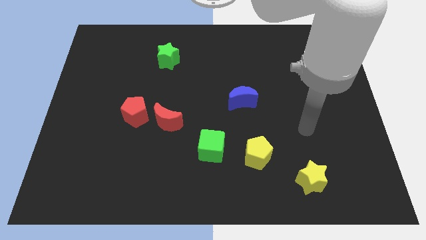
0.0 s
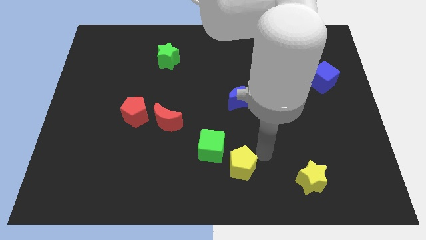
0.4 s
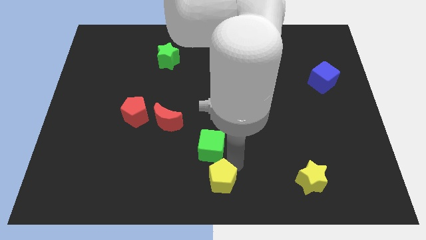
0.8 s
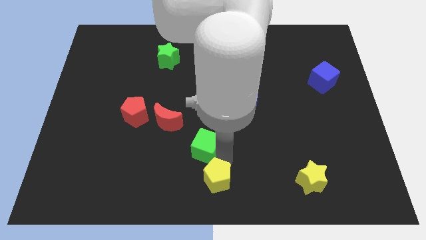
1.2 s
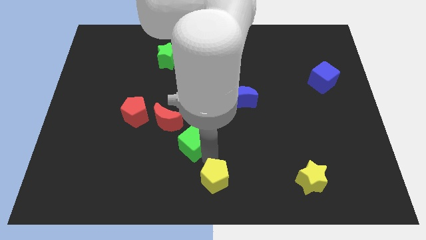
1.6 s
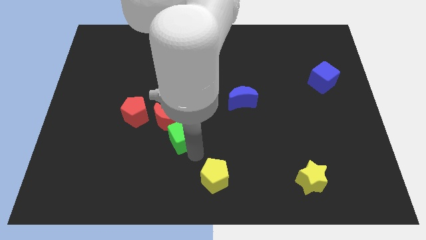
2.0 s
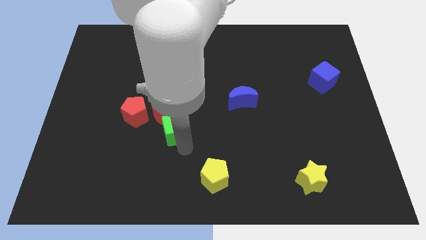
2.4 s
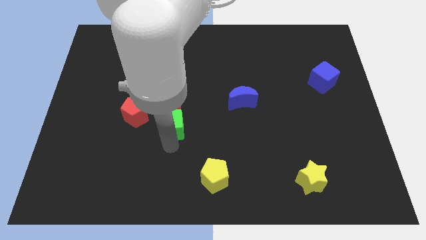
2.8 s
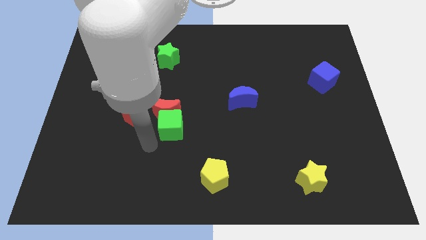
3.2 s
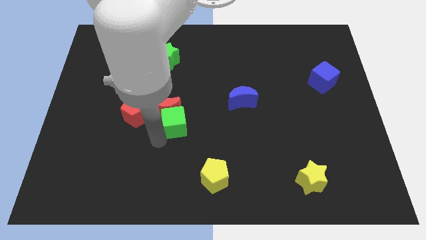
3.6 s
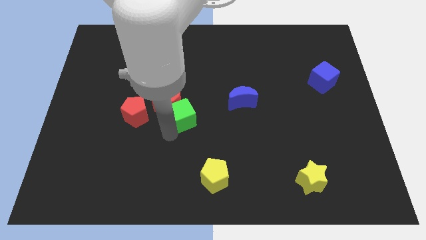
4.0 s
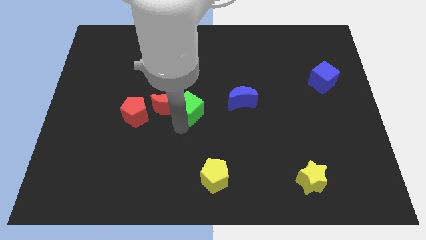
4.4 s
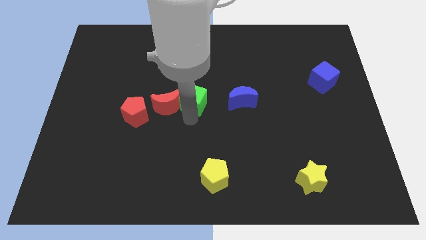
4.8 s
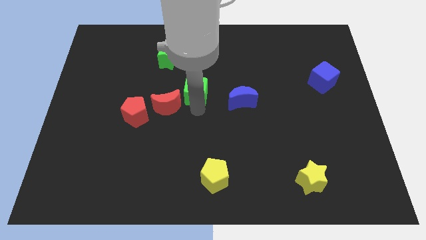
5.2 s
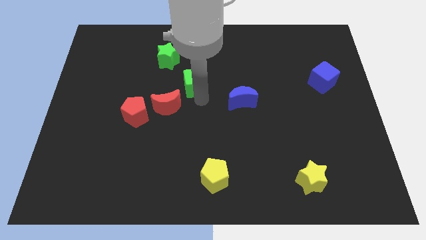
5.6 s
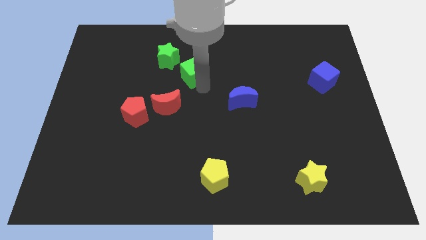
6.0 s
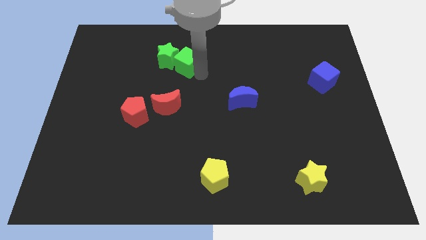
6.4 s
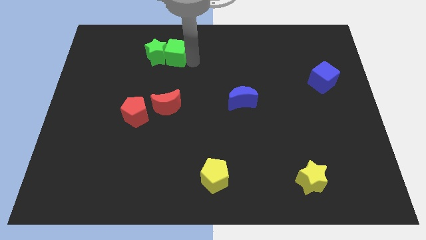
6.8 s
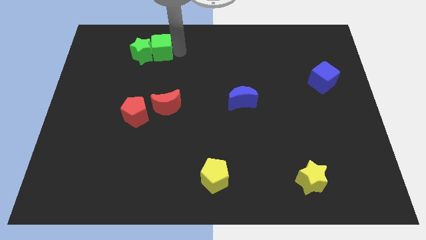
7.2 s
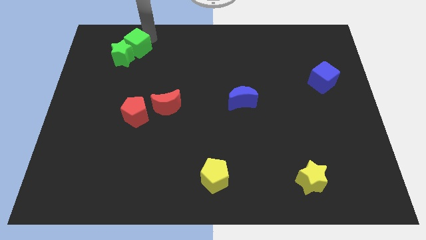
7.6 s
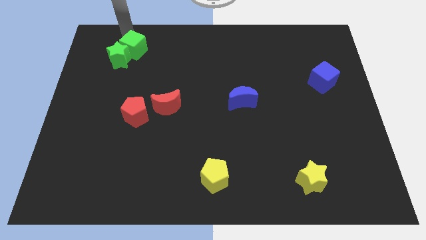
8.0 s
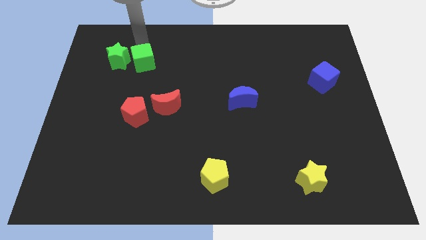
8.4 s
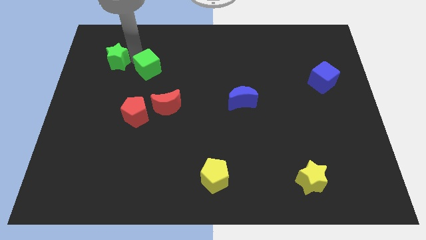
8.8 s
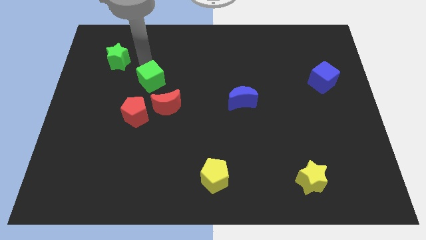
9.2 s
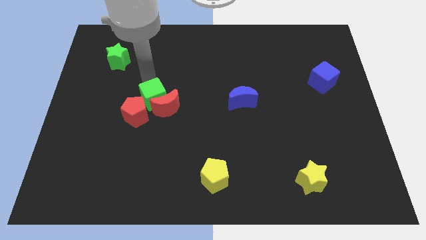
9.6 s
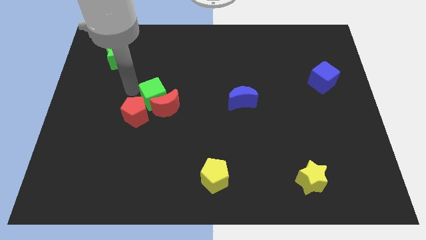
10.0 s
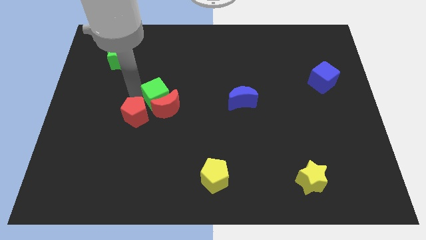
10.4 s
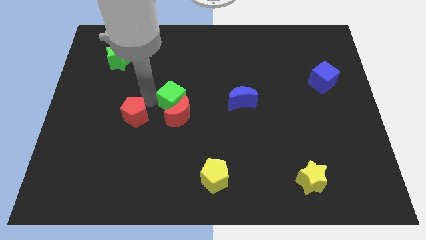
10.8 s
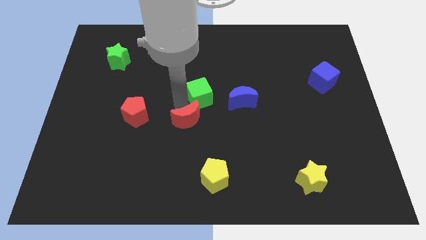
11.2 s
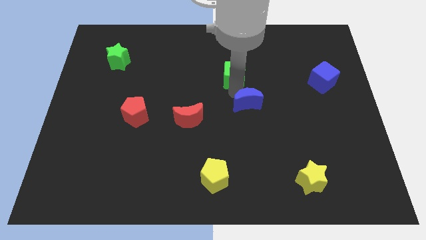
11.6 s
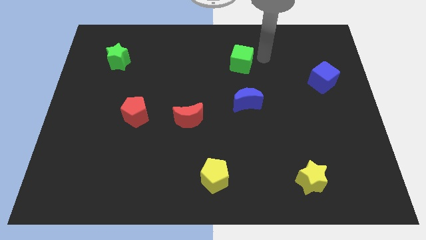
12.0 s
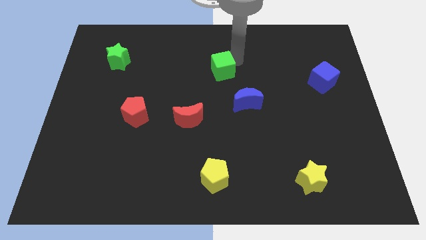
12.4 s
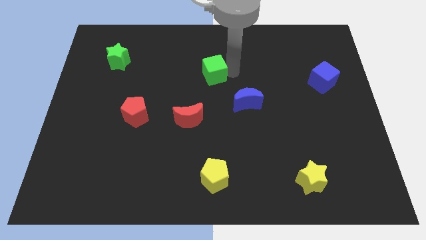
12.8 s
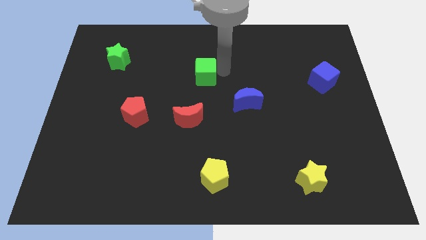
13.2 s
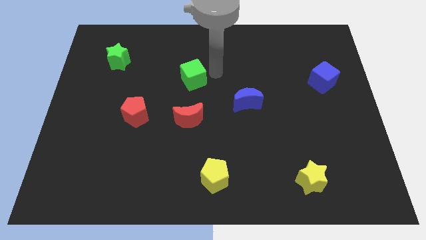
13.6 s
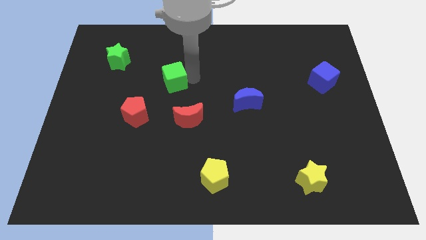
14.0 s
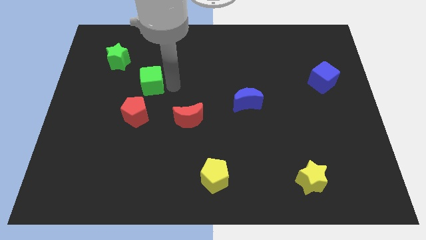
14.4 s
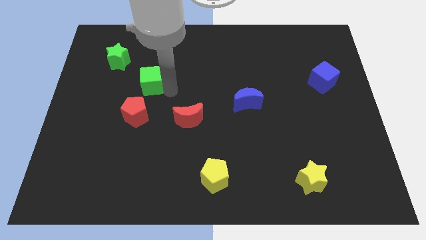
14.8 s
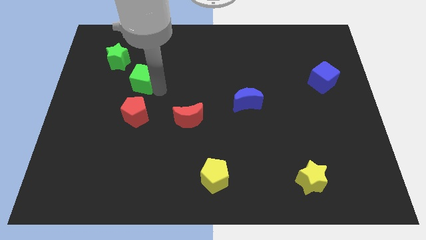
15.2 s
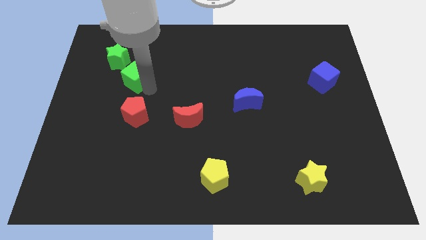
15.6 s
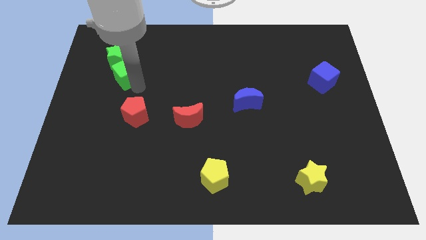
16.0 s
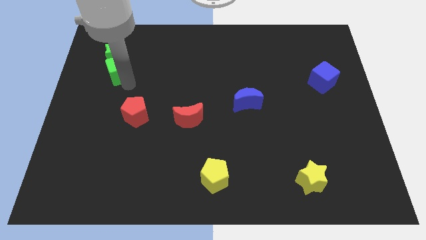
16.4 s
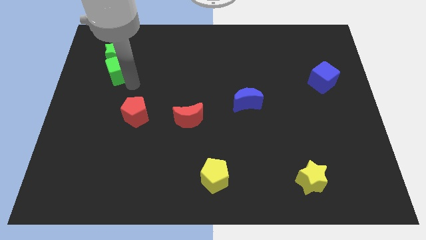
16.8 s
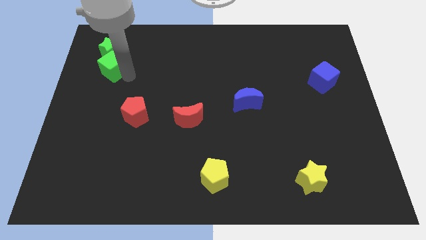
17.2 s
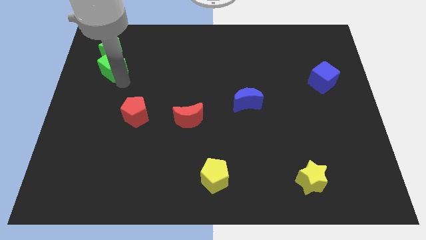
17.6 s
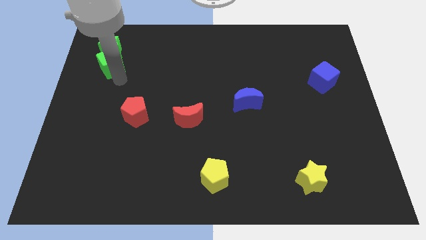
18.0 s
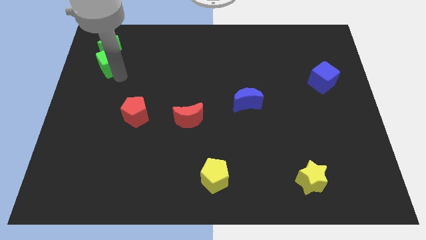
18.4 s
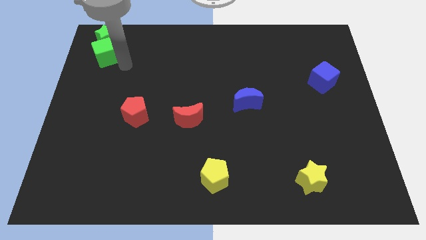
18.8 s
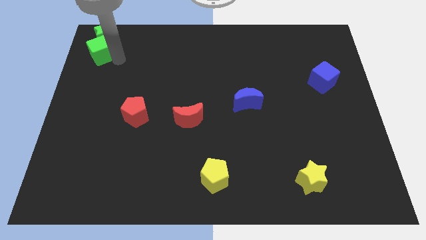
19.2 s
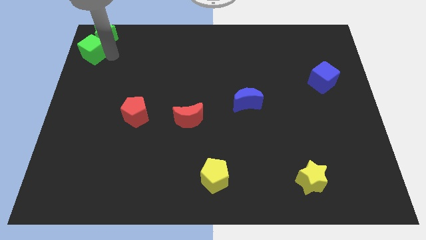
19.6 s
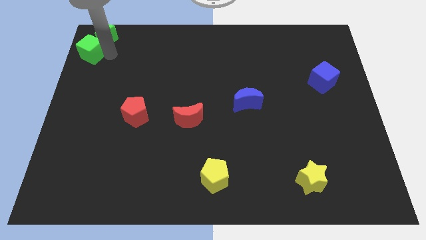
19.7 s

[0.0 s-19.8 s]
push the green cube to the top left of the board

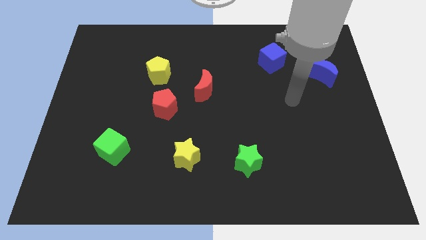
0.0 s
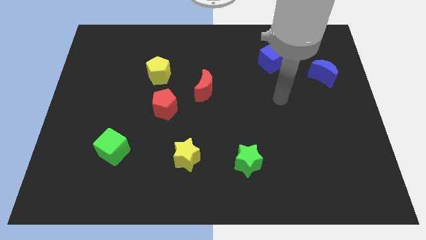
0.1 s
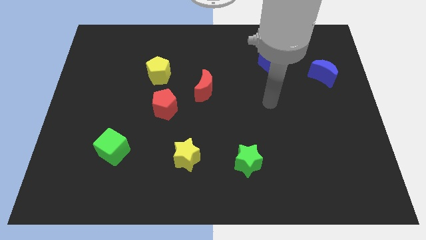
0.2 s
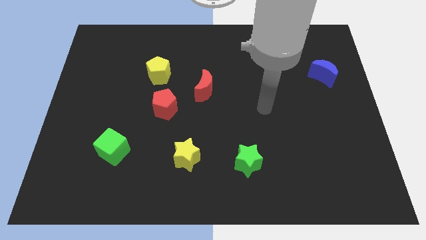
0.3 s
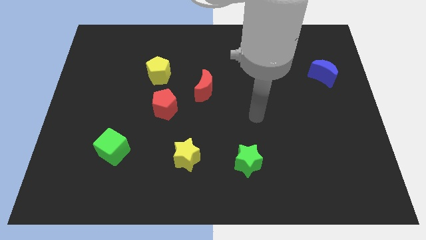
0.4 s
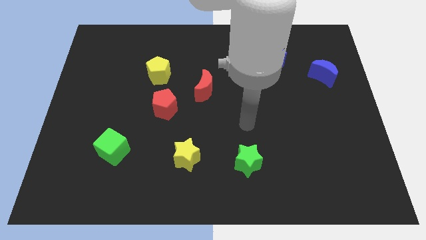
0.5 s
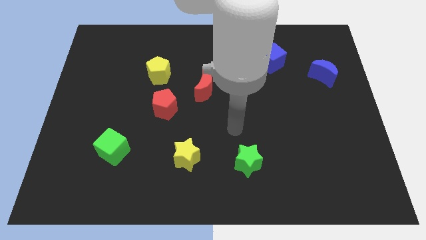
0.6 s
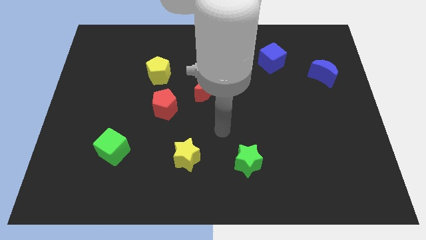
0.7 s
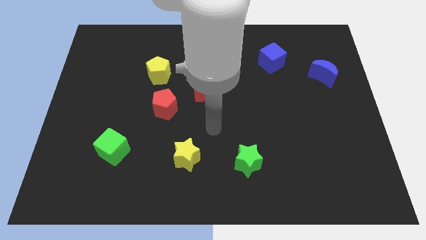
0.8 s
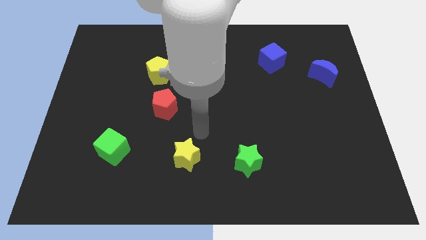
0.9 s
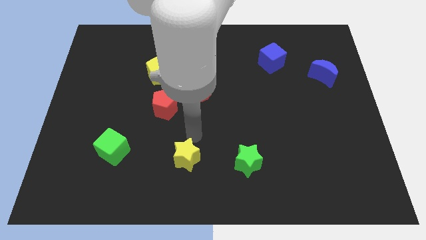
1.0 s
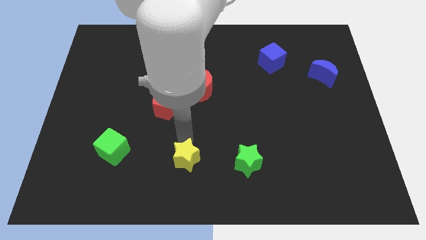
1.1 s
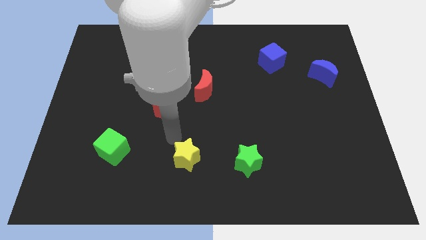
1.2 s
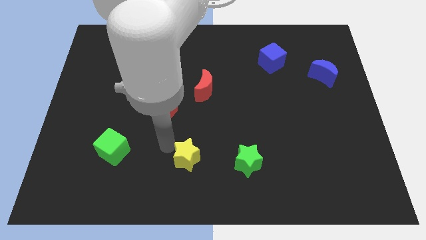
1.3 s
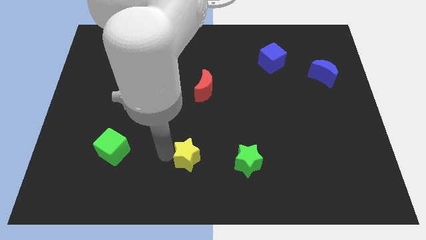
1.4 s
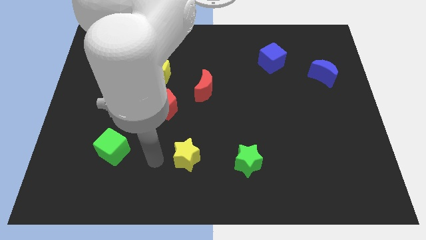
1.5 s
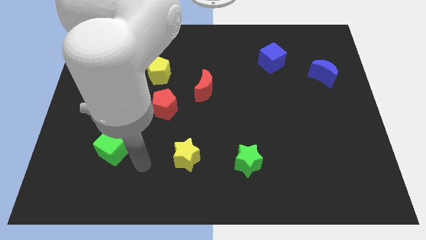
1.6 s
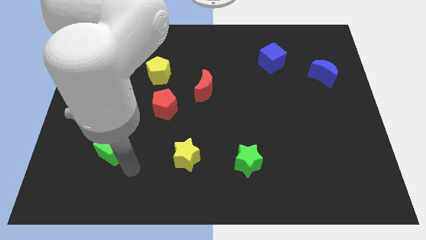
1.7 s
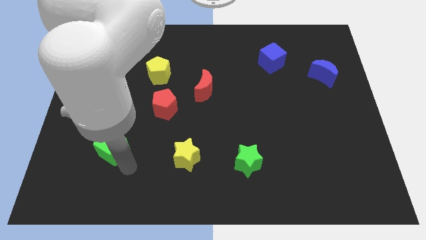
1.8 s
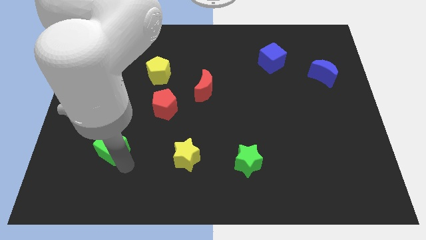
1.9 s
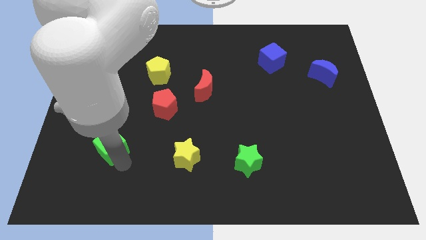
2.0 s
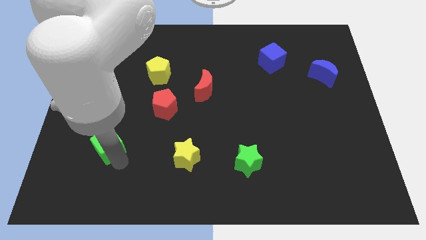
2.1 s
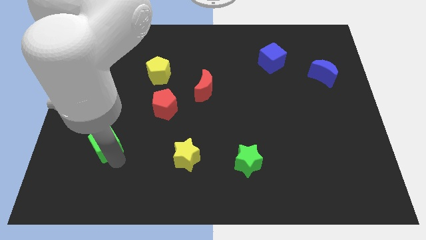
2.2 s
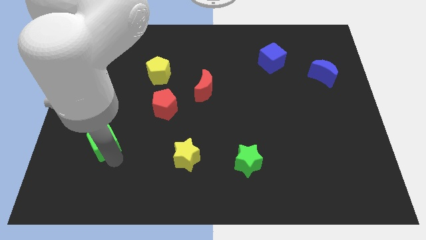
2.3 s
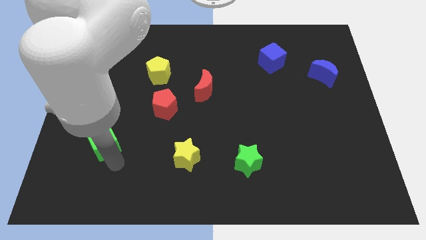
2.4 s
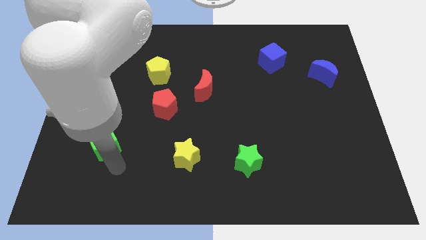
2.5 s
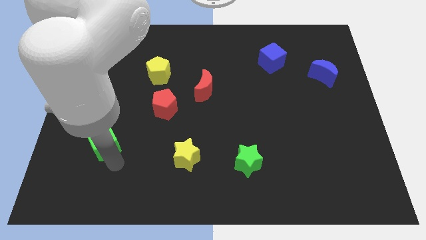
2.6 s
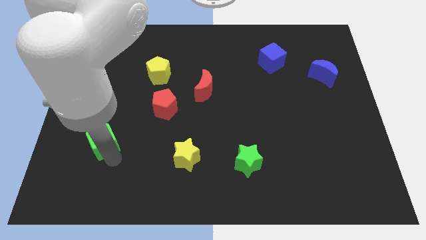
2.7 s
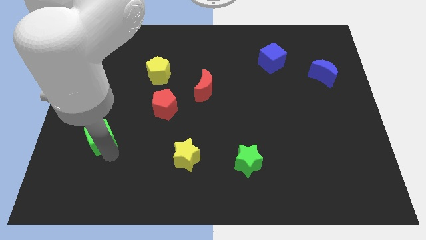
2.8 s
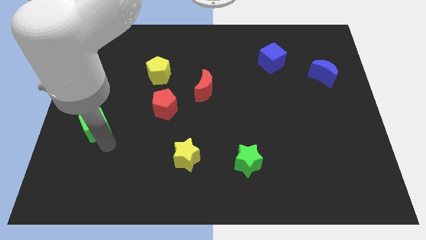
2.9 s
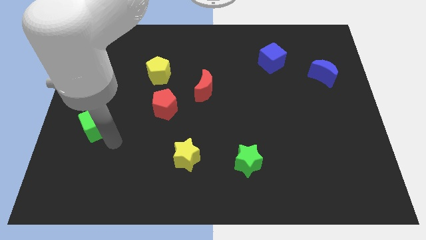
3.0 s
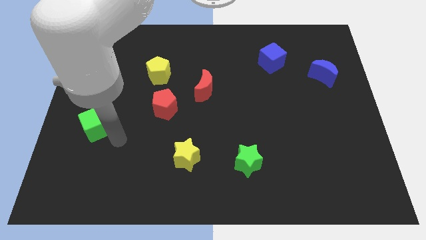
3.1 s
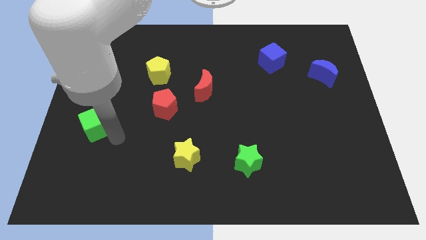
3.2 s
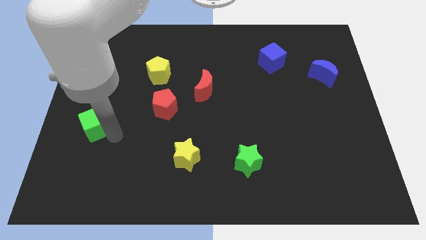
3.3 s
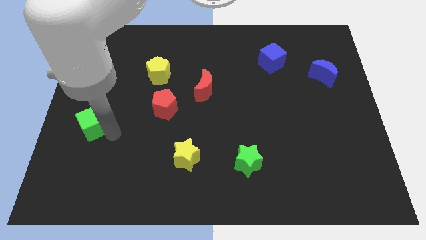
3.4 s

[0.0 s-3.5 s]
push the green cube to the left side
